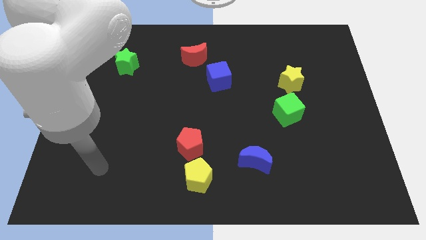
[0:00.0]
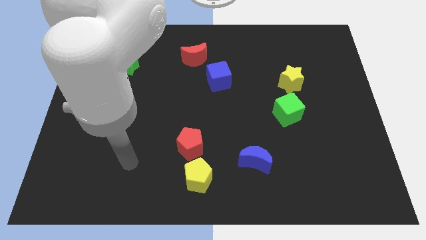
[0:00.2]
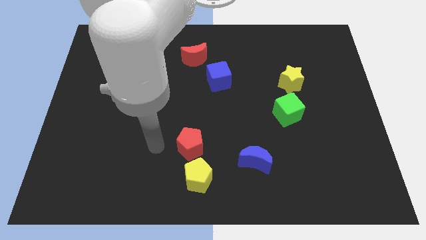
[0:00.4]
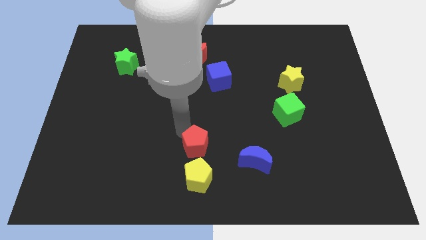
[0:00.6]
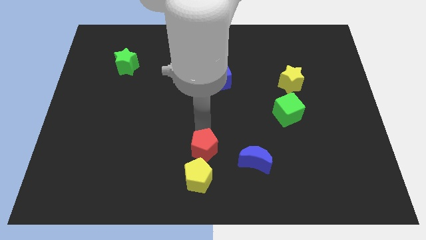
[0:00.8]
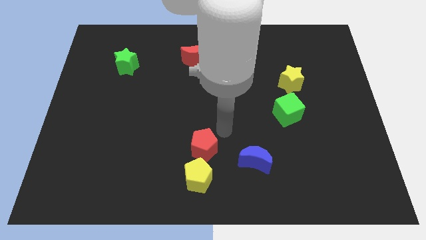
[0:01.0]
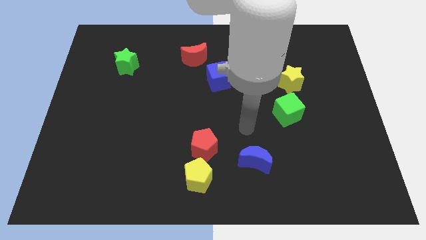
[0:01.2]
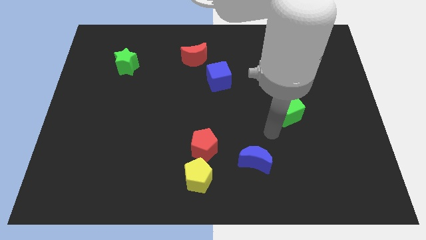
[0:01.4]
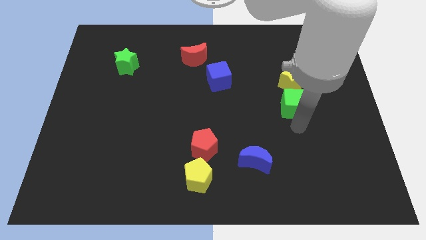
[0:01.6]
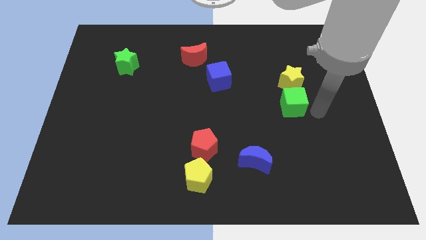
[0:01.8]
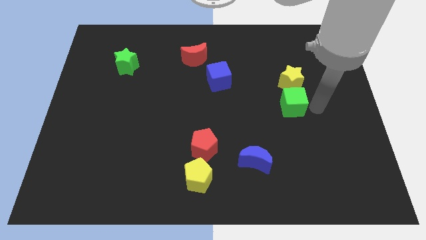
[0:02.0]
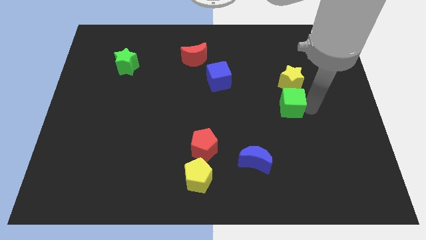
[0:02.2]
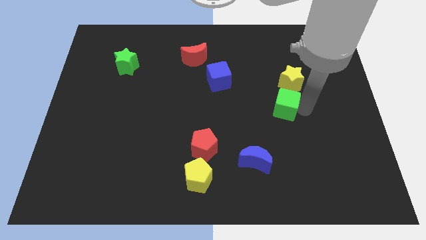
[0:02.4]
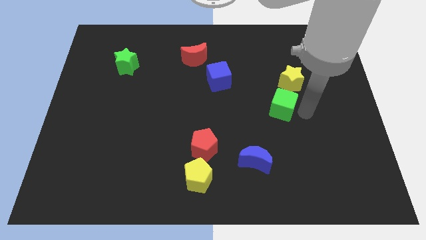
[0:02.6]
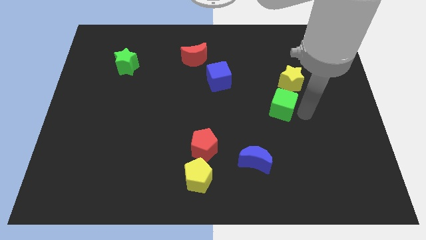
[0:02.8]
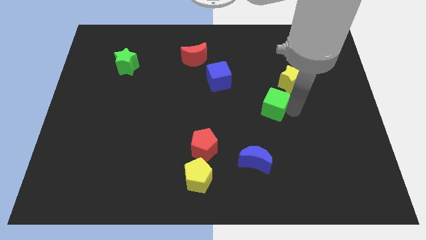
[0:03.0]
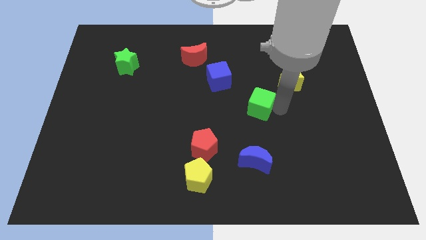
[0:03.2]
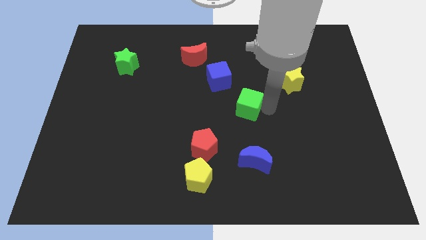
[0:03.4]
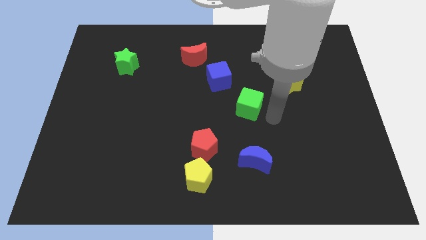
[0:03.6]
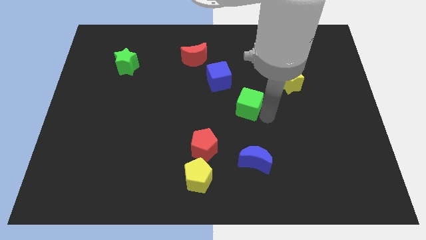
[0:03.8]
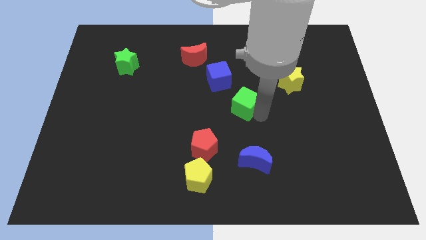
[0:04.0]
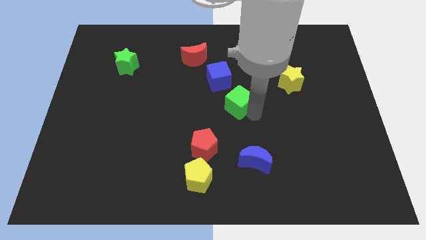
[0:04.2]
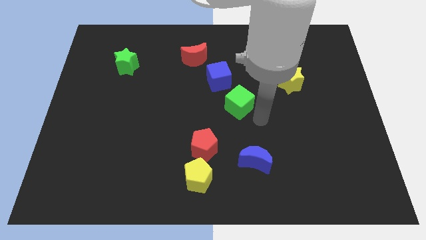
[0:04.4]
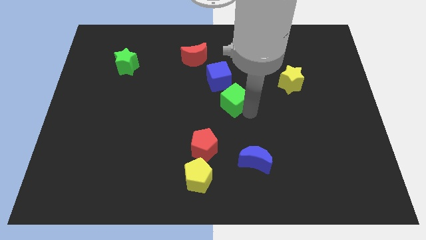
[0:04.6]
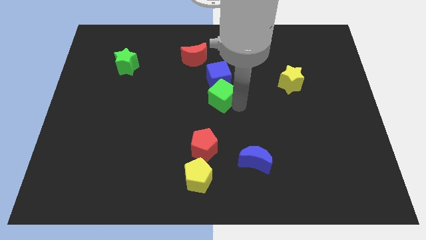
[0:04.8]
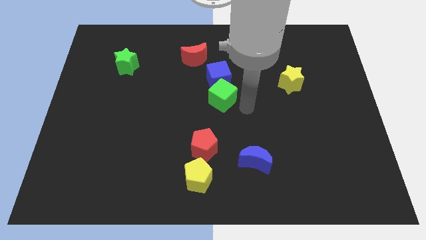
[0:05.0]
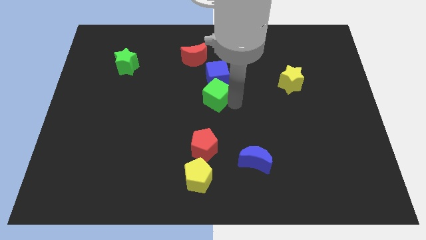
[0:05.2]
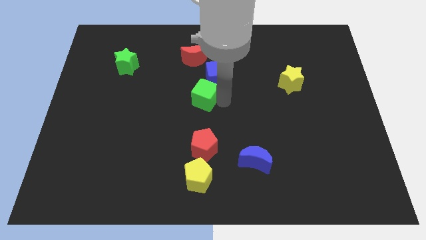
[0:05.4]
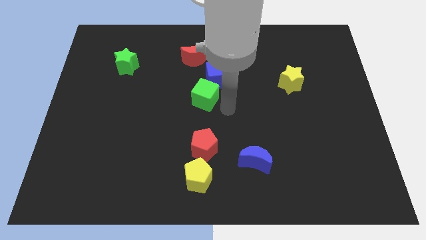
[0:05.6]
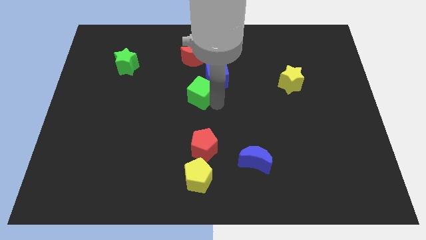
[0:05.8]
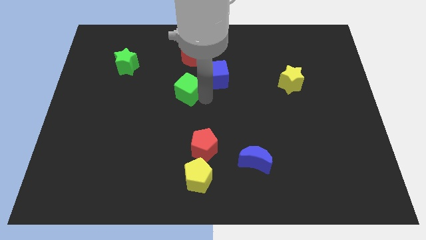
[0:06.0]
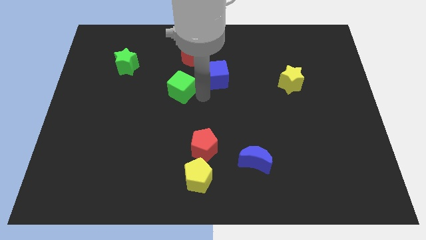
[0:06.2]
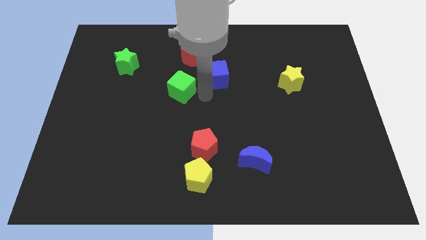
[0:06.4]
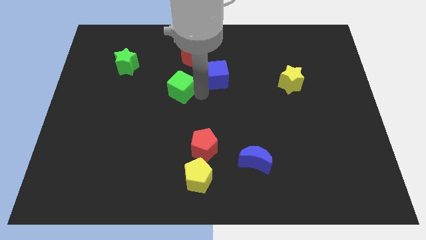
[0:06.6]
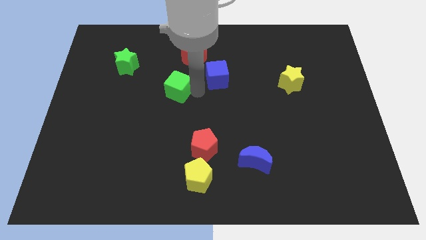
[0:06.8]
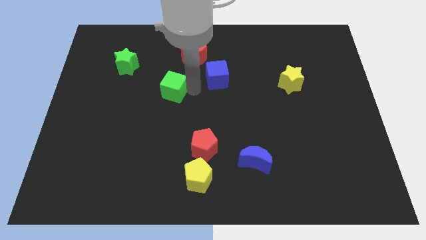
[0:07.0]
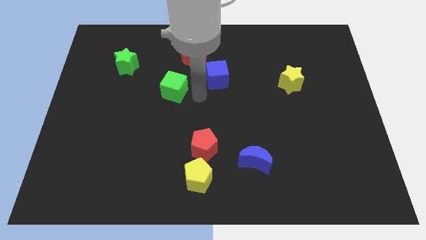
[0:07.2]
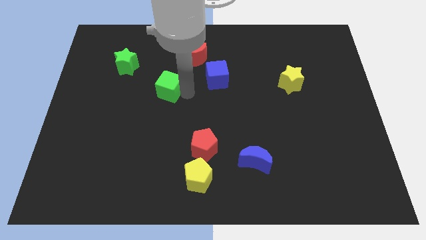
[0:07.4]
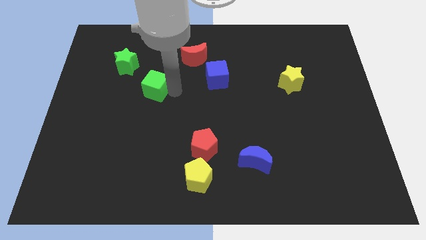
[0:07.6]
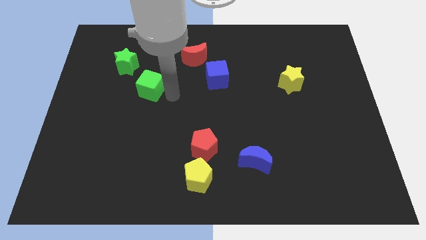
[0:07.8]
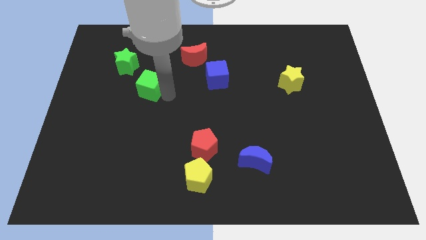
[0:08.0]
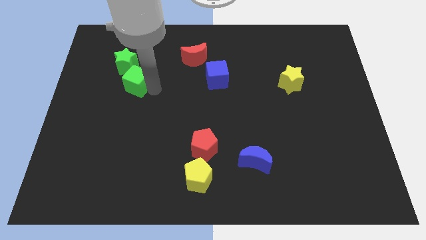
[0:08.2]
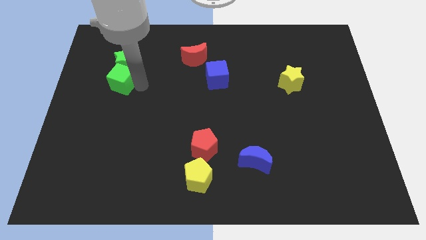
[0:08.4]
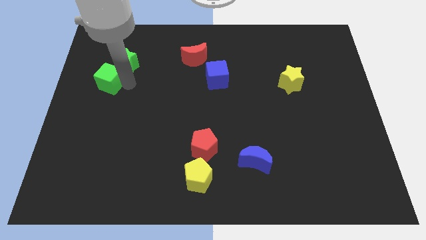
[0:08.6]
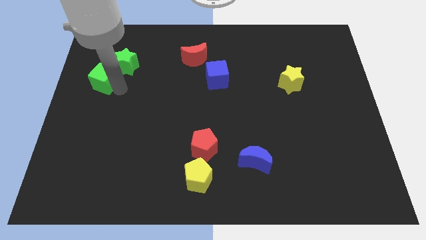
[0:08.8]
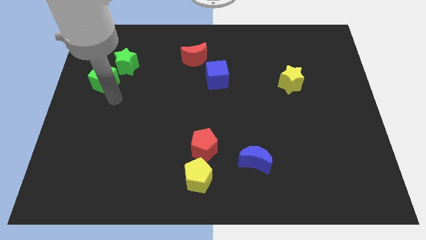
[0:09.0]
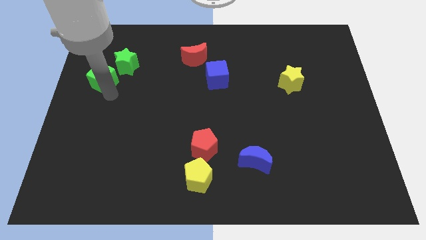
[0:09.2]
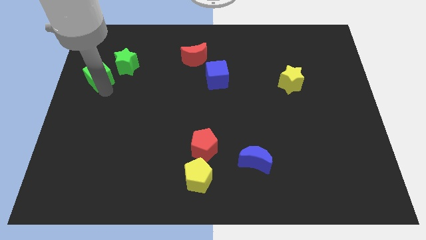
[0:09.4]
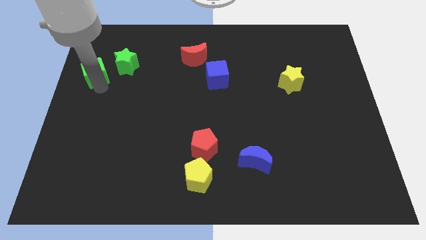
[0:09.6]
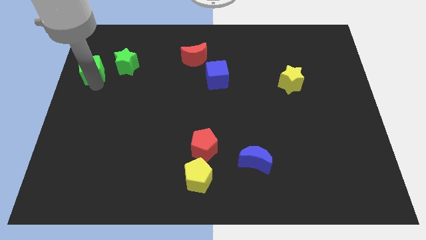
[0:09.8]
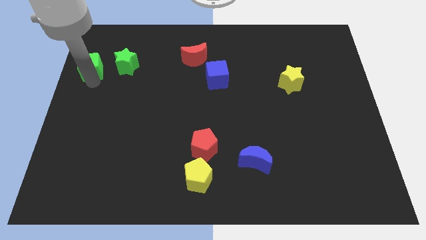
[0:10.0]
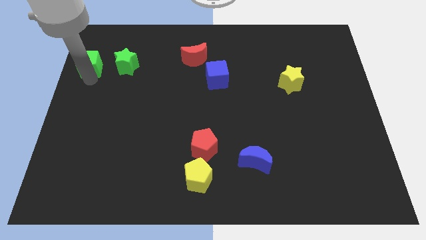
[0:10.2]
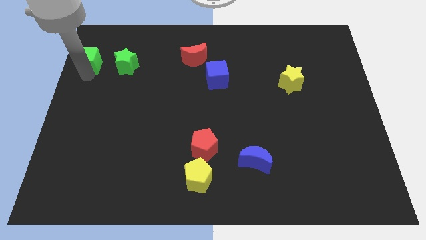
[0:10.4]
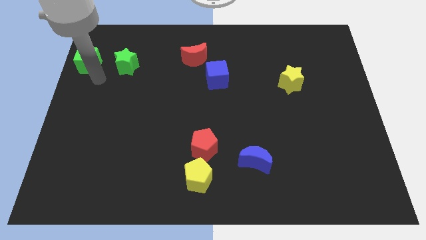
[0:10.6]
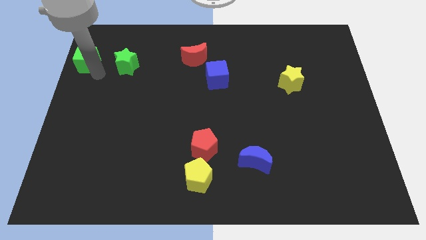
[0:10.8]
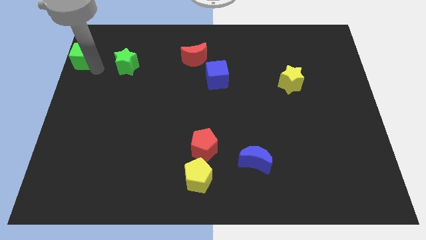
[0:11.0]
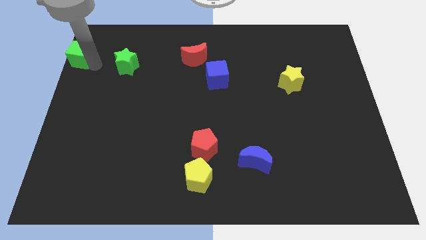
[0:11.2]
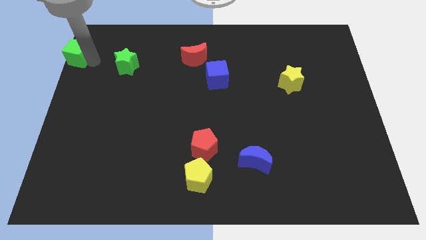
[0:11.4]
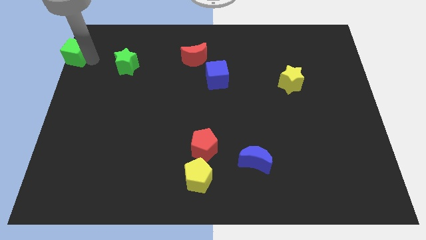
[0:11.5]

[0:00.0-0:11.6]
move the green cube to the upper left corner

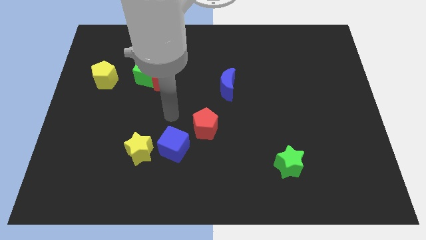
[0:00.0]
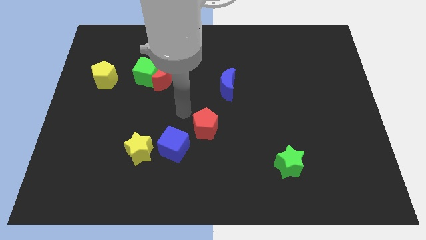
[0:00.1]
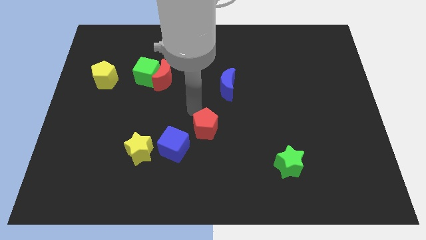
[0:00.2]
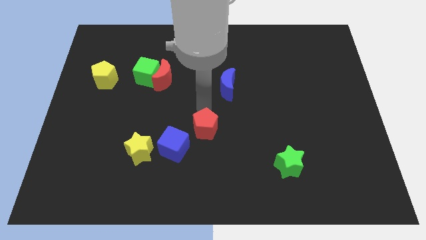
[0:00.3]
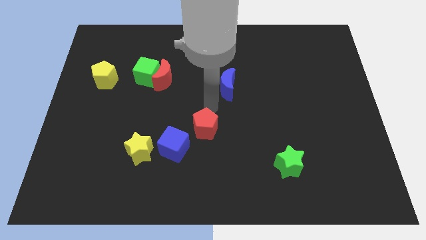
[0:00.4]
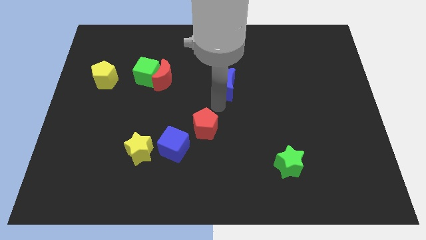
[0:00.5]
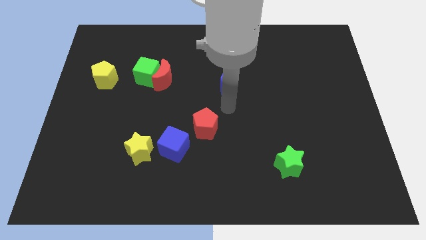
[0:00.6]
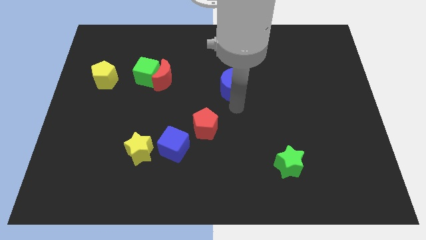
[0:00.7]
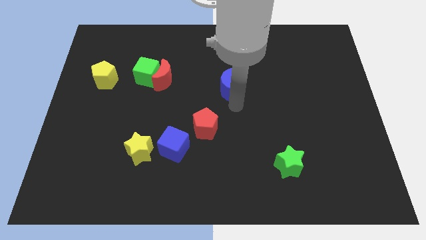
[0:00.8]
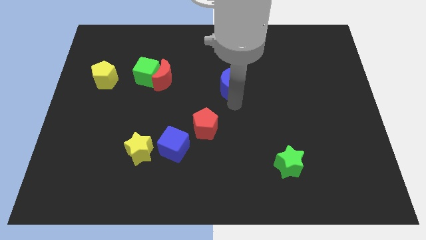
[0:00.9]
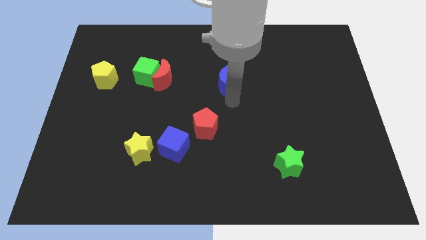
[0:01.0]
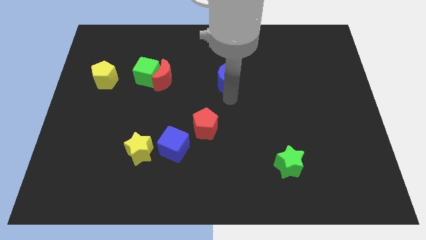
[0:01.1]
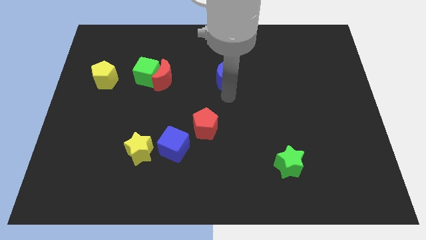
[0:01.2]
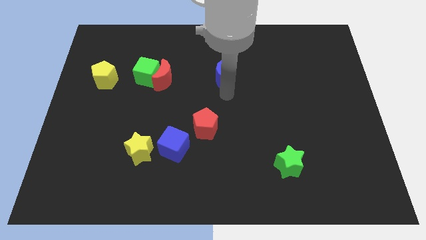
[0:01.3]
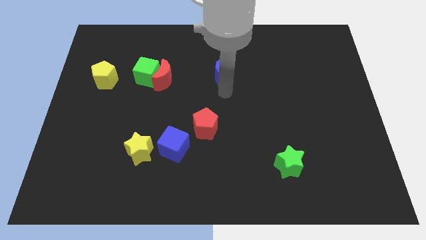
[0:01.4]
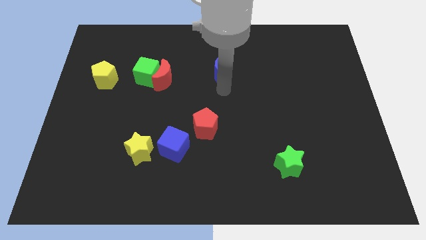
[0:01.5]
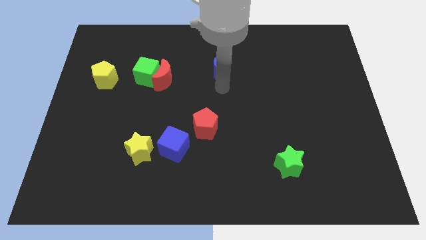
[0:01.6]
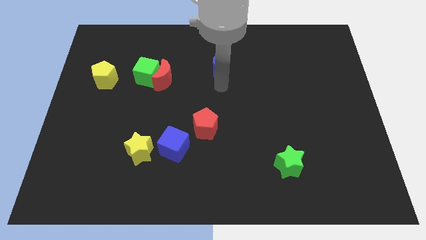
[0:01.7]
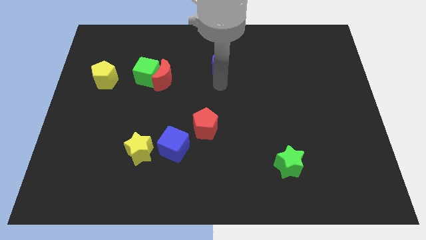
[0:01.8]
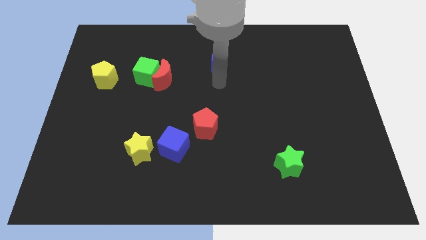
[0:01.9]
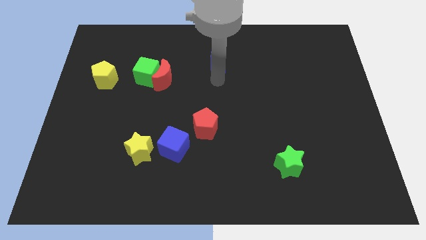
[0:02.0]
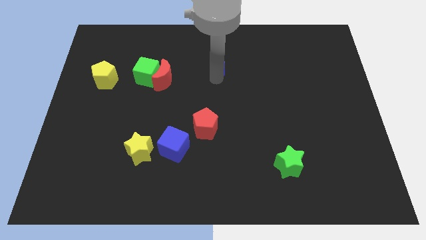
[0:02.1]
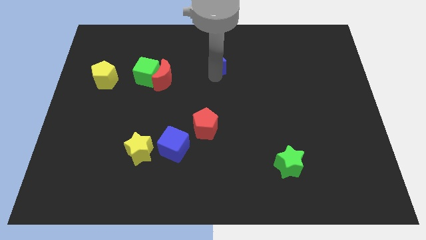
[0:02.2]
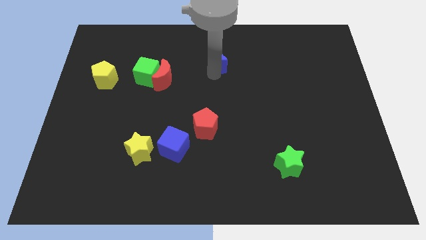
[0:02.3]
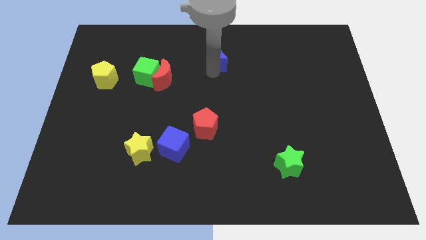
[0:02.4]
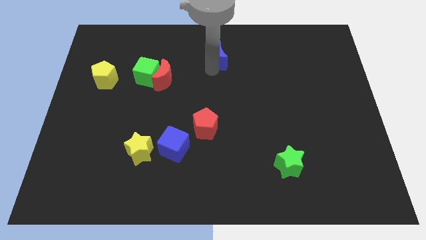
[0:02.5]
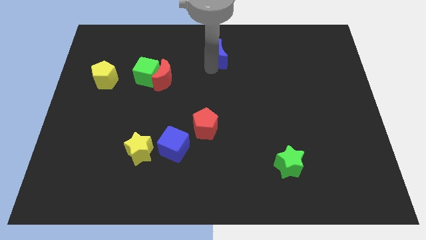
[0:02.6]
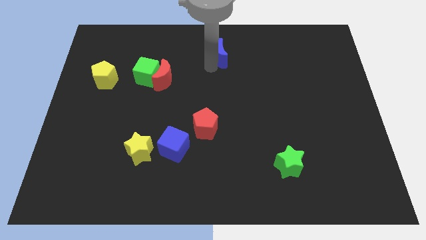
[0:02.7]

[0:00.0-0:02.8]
push the blue moon to the top
